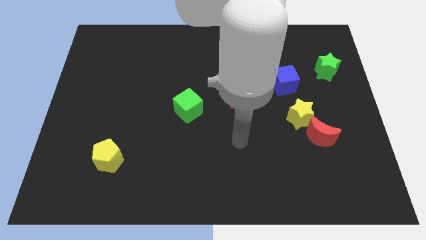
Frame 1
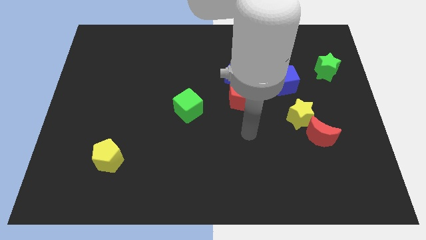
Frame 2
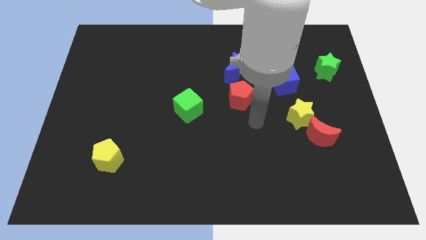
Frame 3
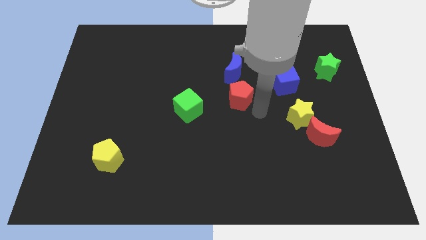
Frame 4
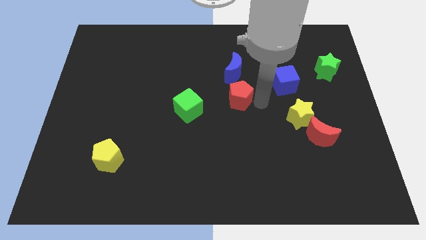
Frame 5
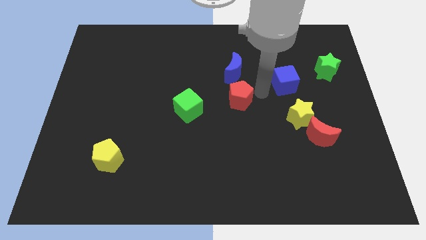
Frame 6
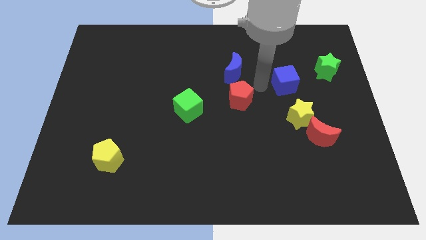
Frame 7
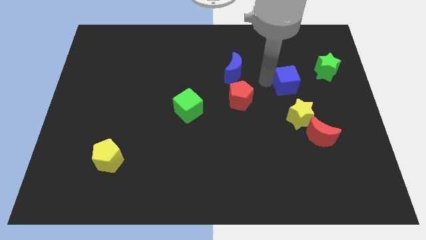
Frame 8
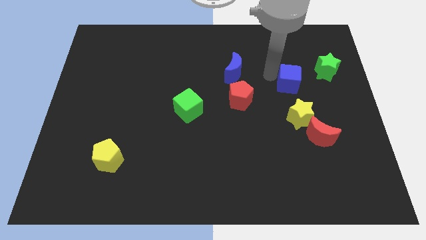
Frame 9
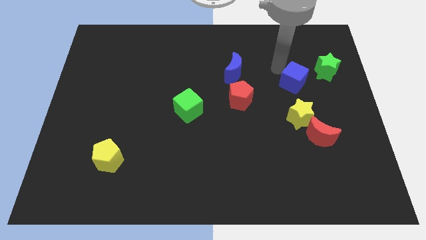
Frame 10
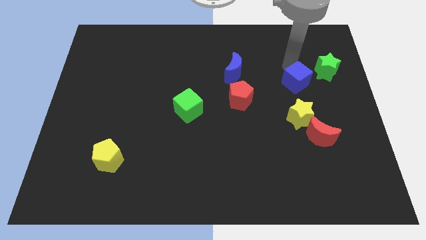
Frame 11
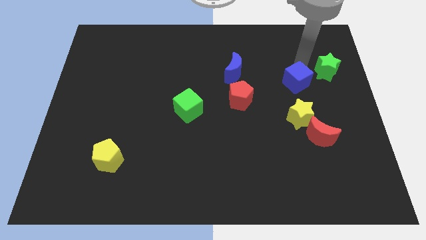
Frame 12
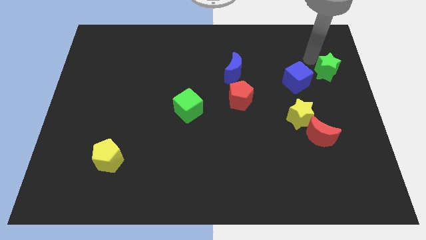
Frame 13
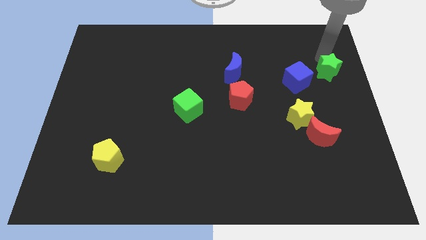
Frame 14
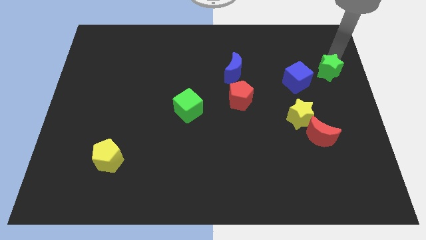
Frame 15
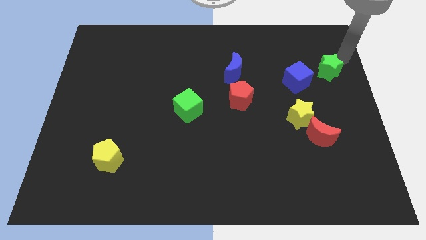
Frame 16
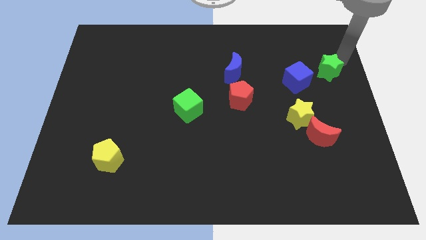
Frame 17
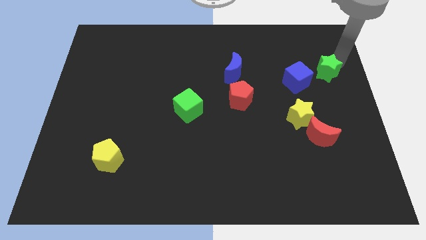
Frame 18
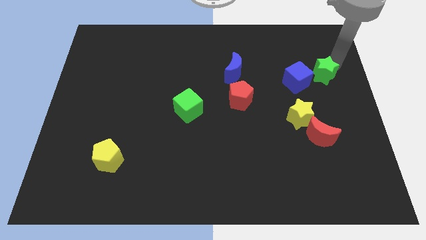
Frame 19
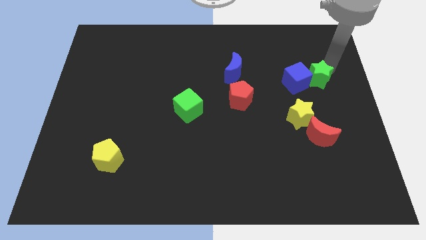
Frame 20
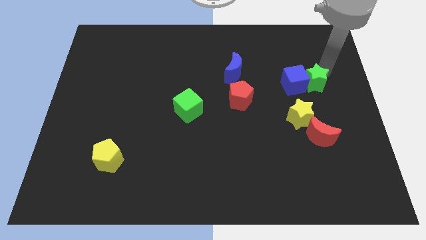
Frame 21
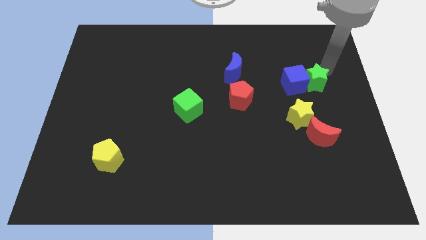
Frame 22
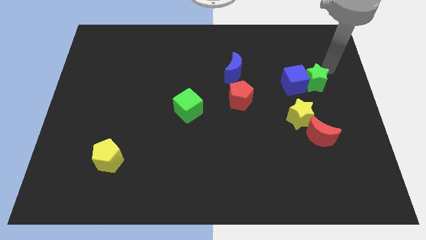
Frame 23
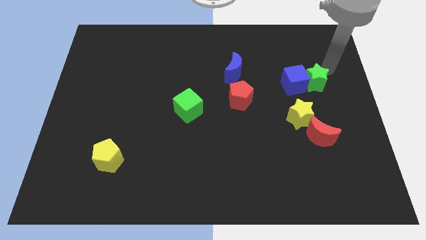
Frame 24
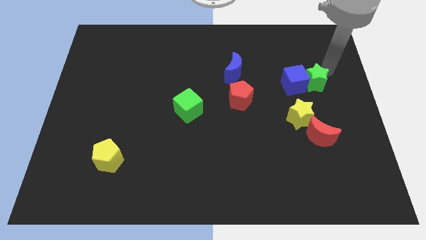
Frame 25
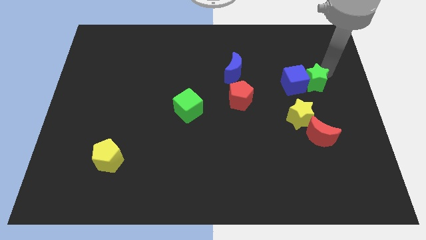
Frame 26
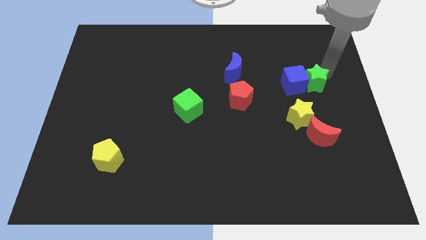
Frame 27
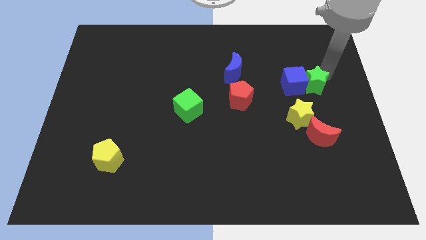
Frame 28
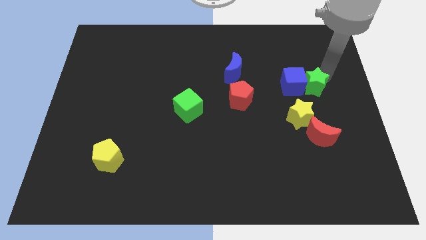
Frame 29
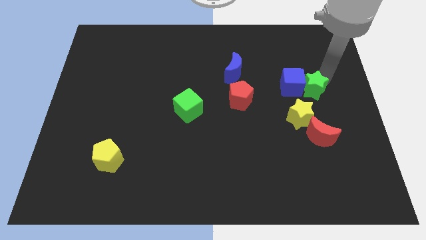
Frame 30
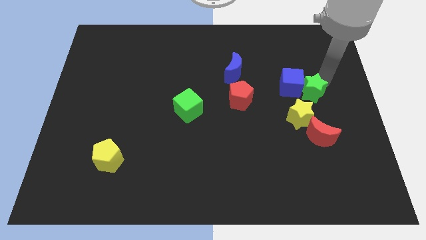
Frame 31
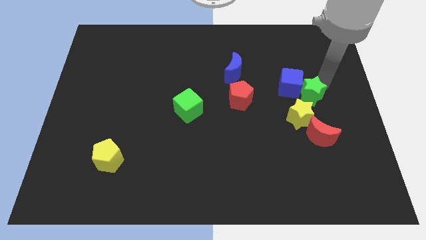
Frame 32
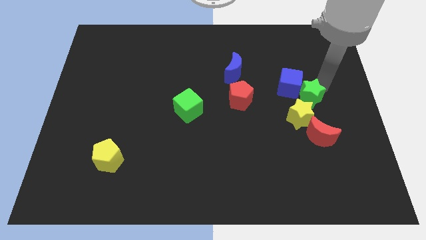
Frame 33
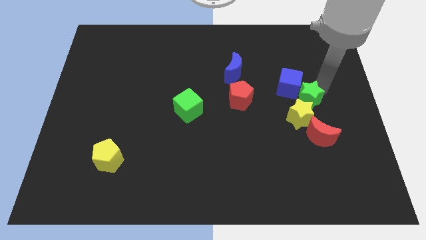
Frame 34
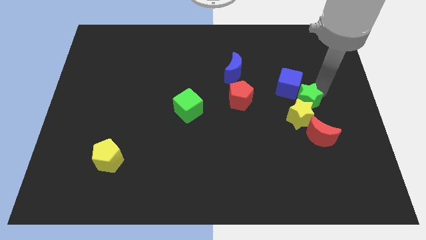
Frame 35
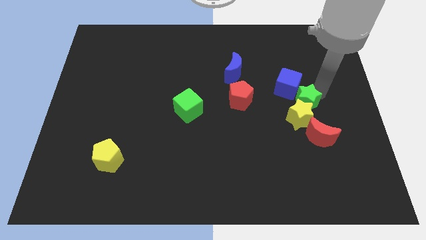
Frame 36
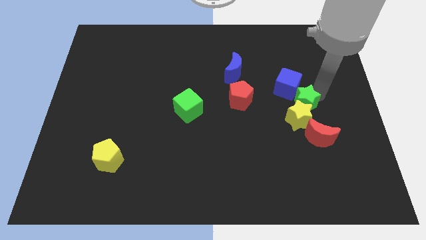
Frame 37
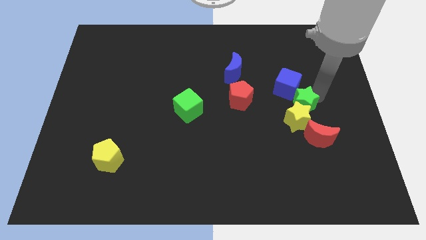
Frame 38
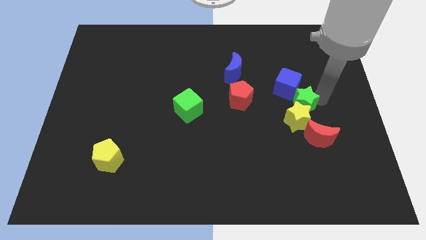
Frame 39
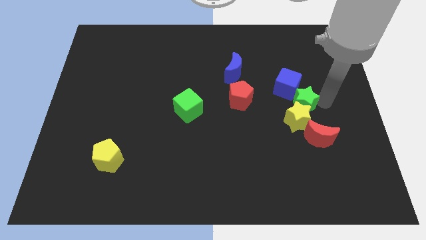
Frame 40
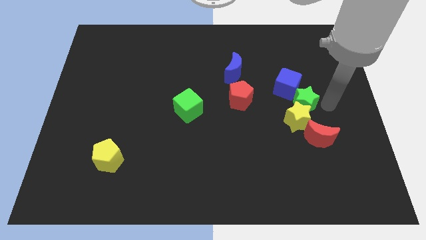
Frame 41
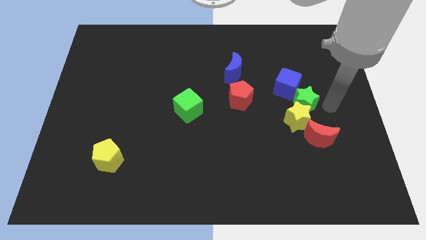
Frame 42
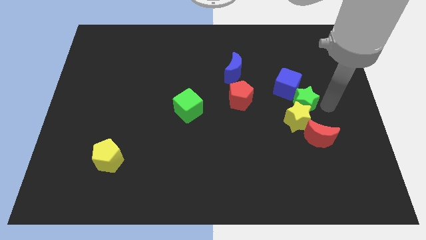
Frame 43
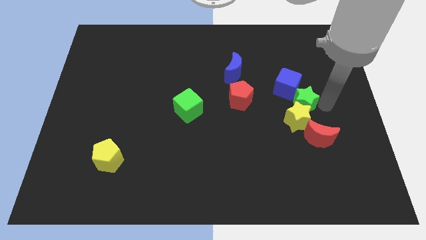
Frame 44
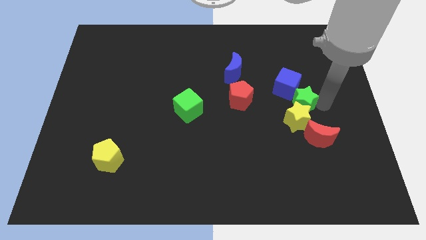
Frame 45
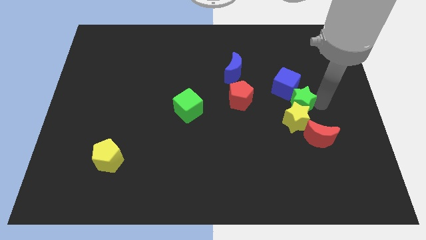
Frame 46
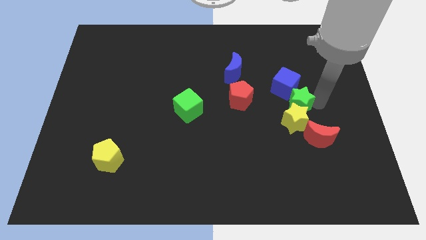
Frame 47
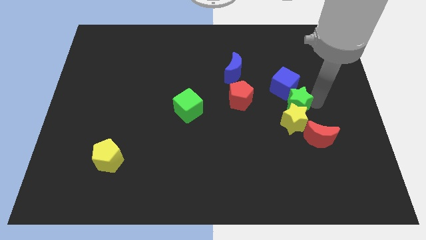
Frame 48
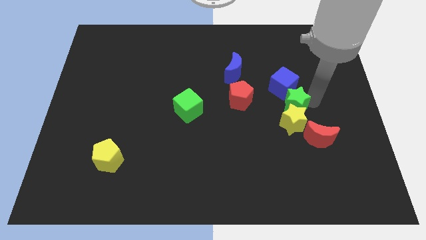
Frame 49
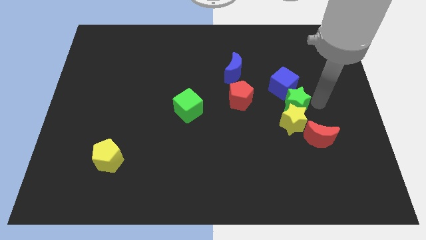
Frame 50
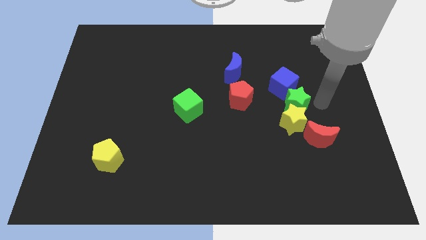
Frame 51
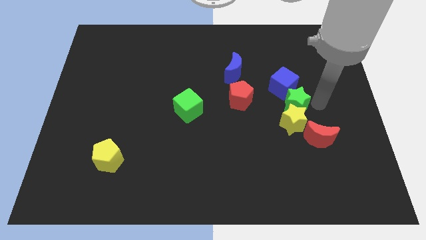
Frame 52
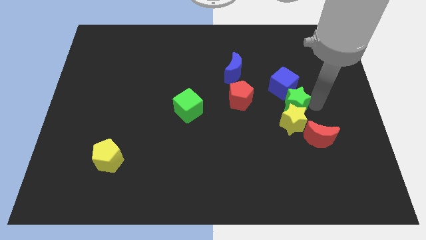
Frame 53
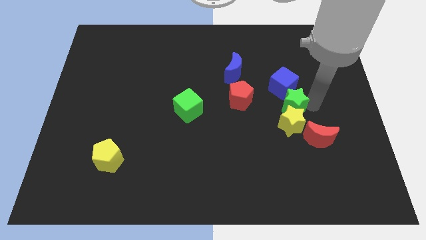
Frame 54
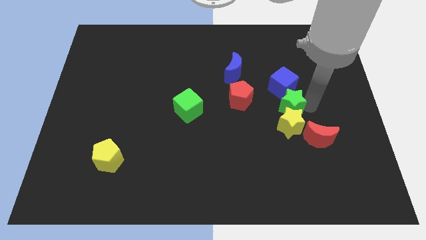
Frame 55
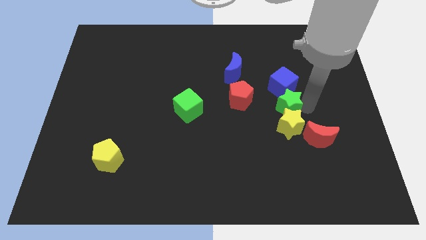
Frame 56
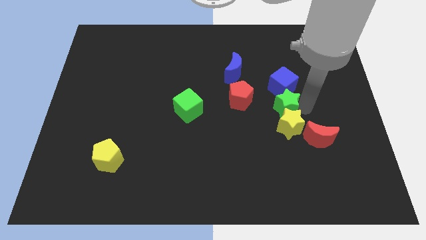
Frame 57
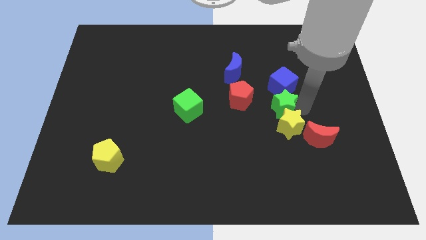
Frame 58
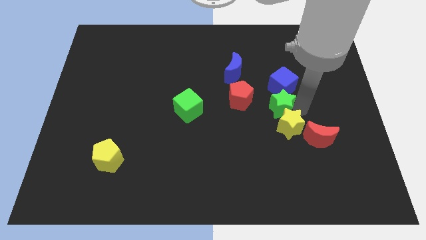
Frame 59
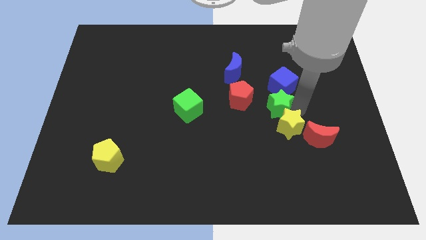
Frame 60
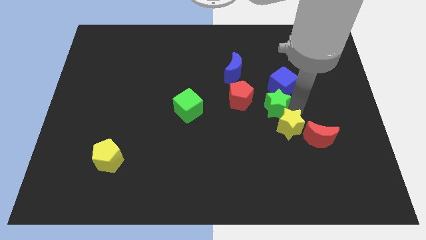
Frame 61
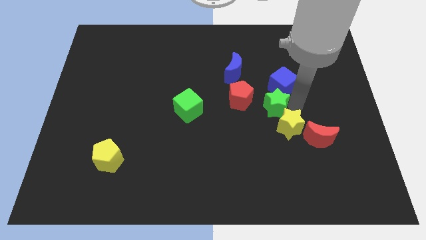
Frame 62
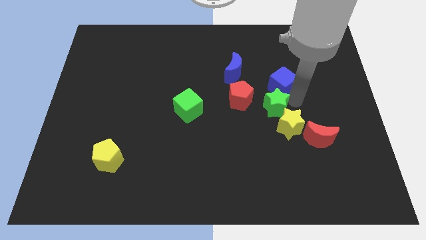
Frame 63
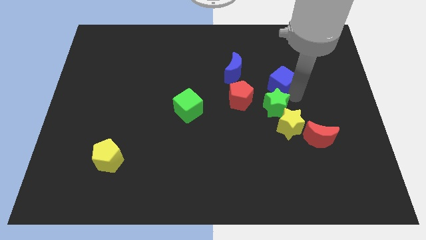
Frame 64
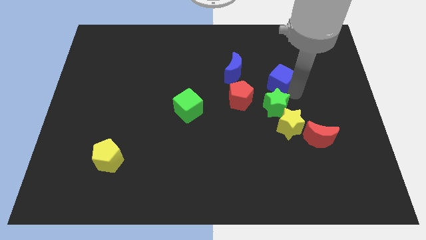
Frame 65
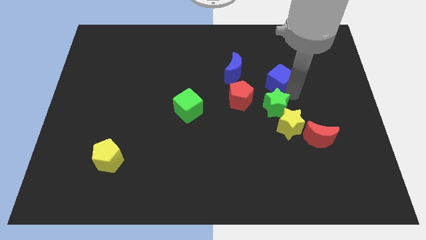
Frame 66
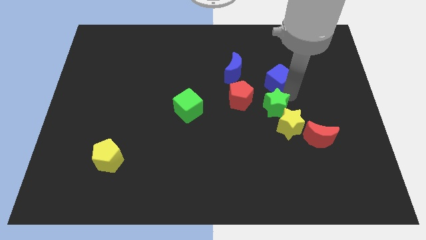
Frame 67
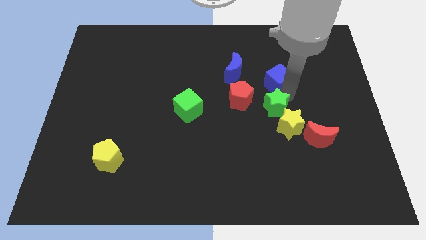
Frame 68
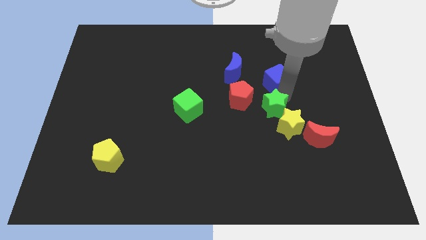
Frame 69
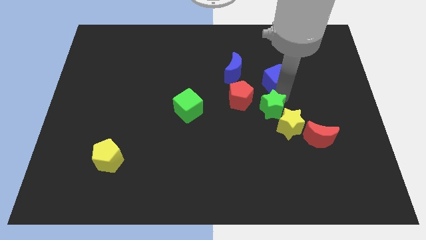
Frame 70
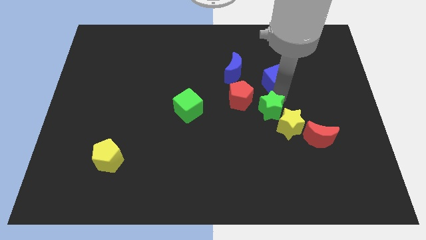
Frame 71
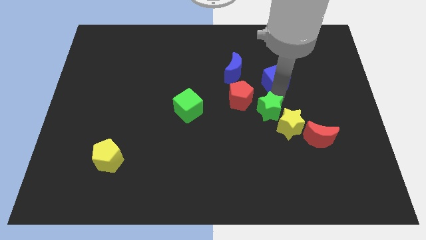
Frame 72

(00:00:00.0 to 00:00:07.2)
slide the green star diagonally downwards and to the left

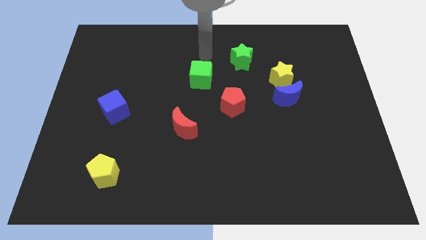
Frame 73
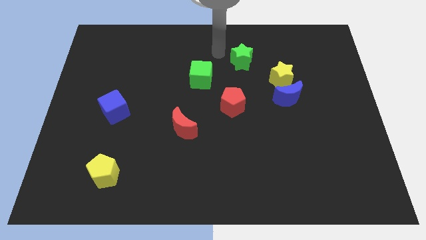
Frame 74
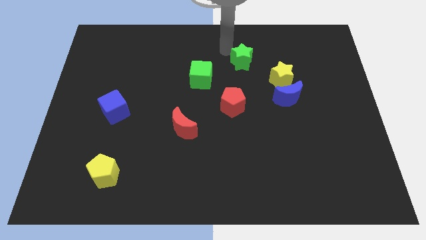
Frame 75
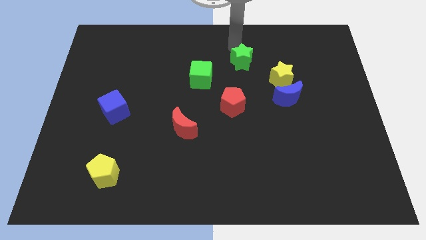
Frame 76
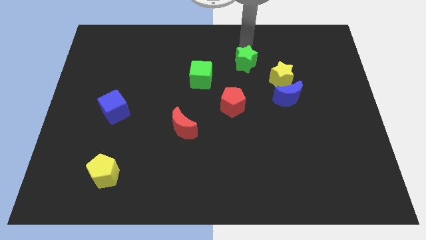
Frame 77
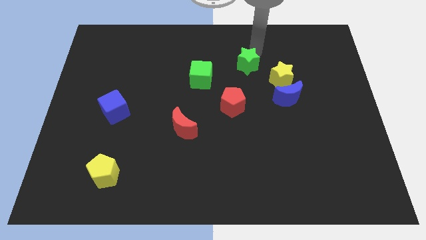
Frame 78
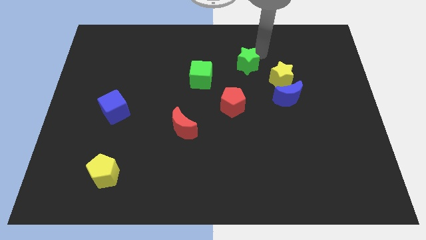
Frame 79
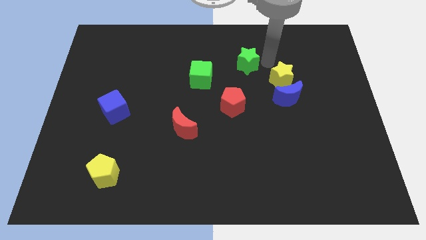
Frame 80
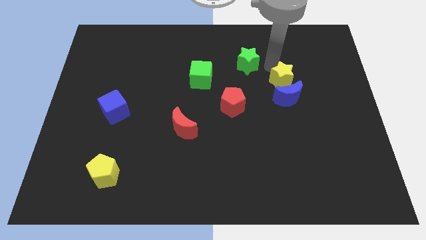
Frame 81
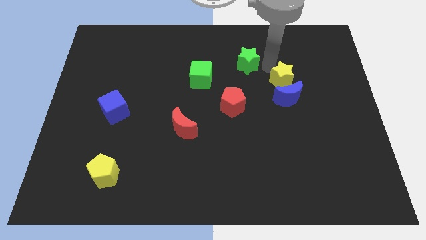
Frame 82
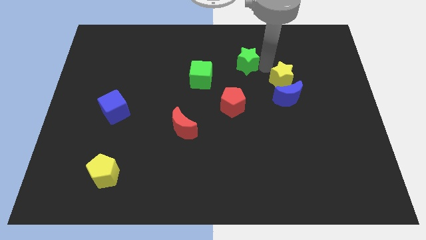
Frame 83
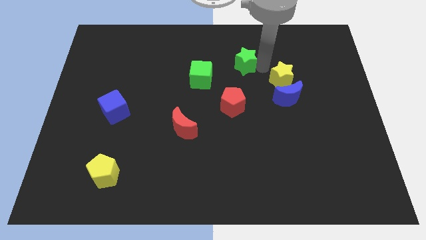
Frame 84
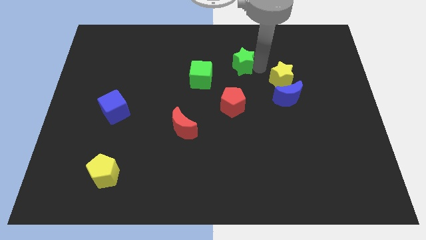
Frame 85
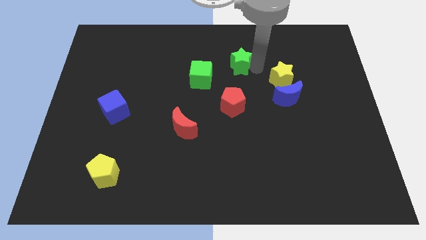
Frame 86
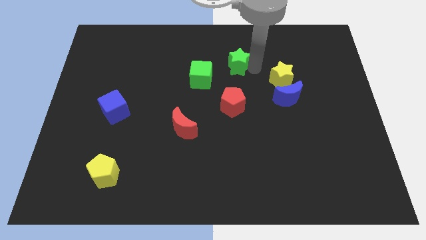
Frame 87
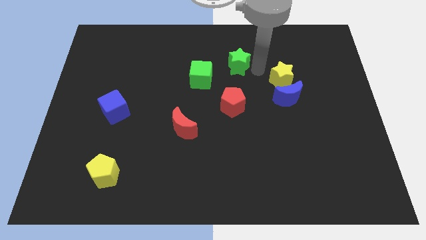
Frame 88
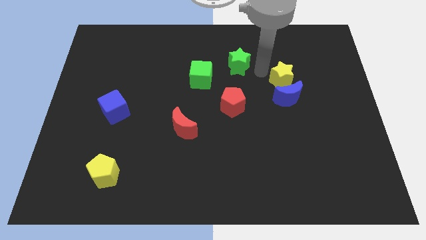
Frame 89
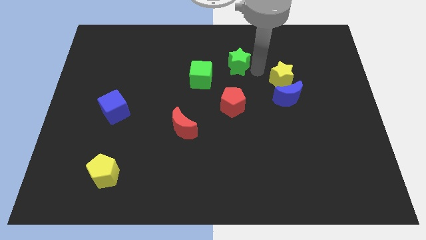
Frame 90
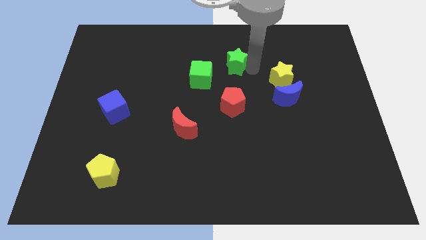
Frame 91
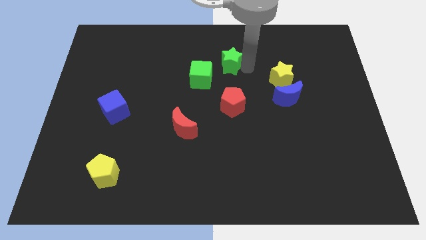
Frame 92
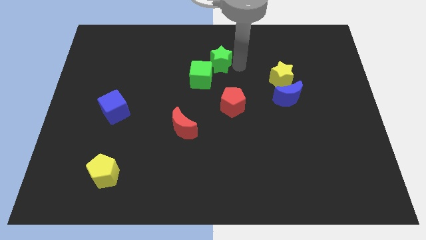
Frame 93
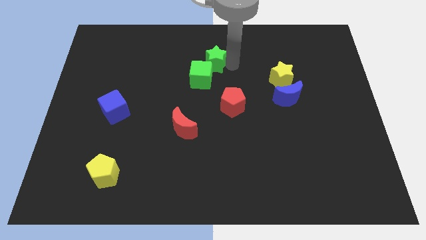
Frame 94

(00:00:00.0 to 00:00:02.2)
push the green star left a little bit
